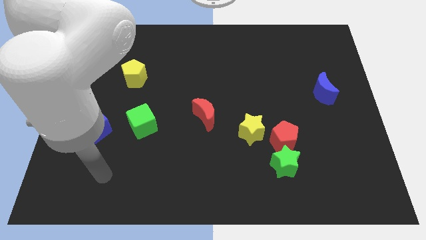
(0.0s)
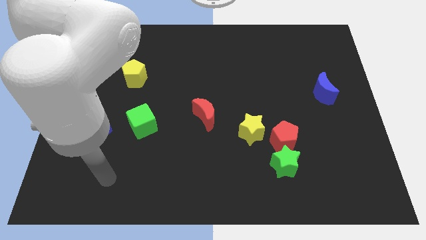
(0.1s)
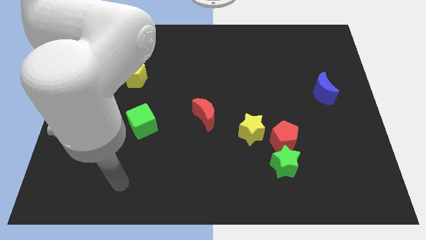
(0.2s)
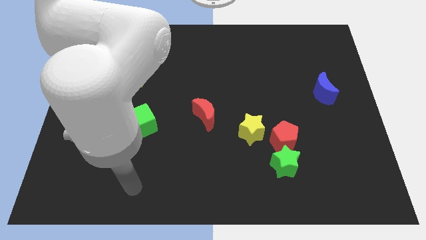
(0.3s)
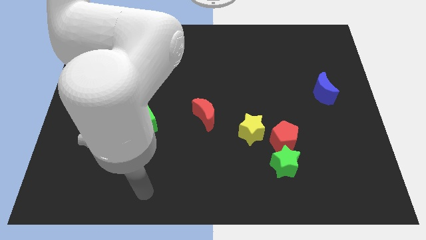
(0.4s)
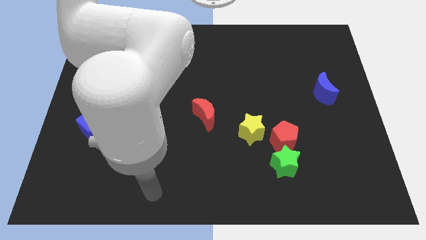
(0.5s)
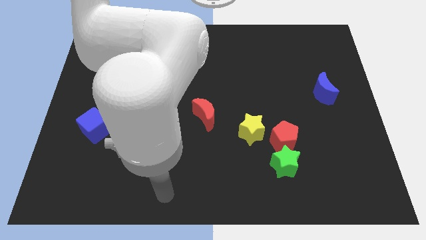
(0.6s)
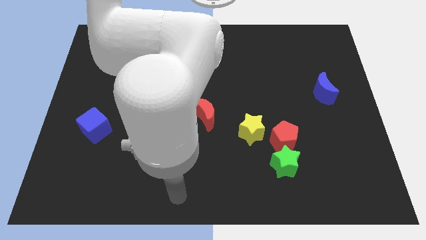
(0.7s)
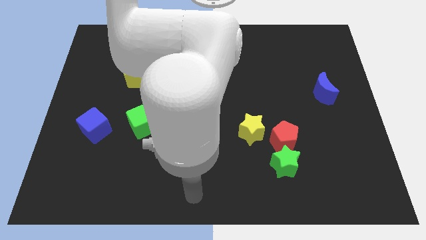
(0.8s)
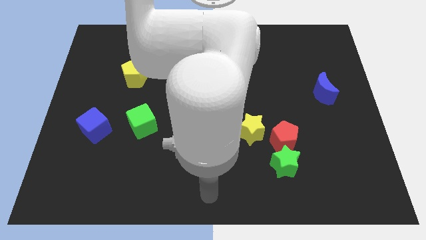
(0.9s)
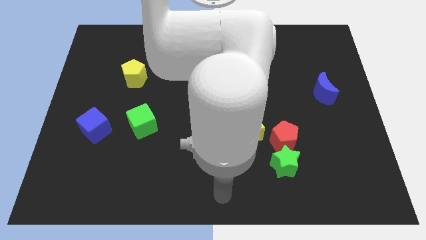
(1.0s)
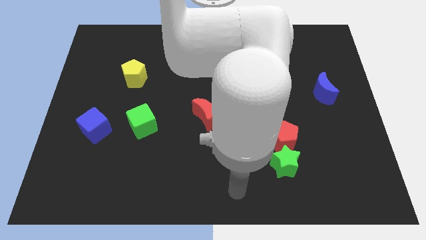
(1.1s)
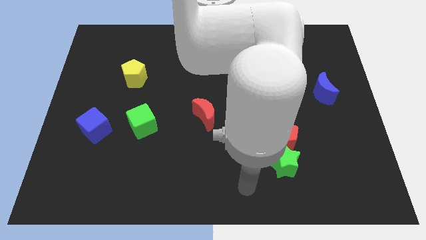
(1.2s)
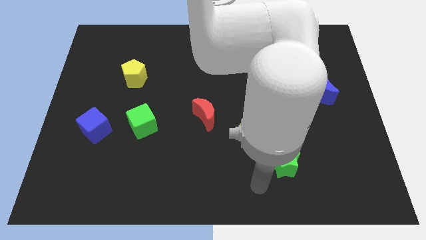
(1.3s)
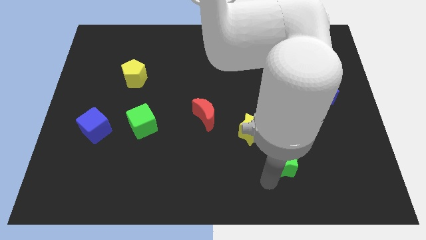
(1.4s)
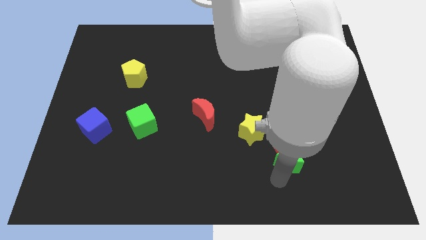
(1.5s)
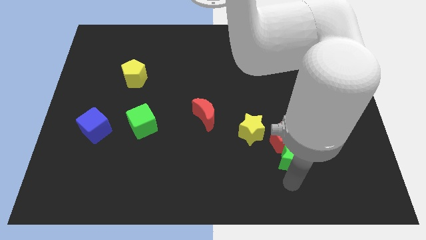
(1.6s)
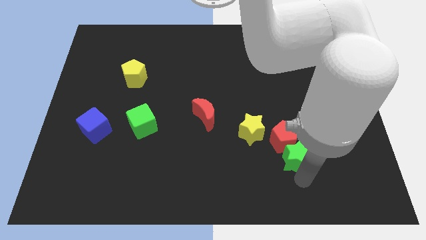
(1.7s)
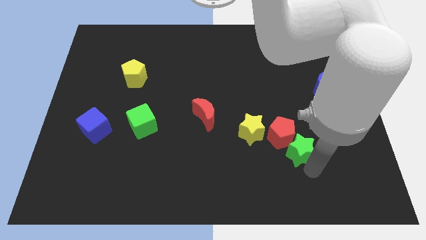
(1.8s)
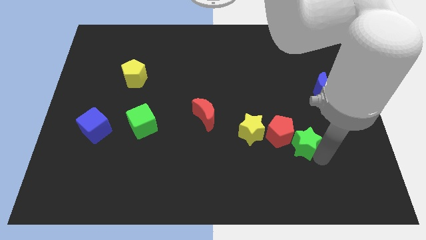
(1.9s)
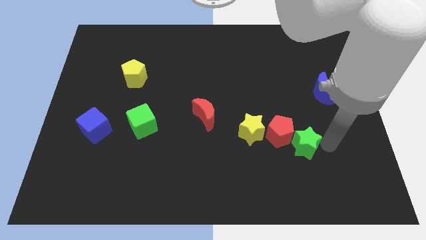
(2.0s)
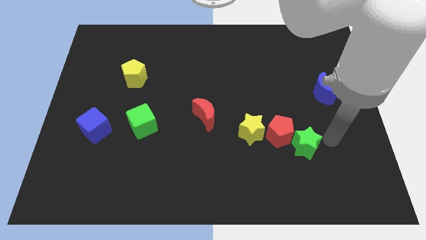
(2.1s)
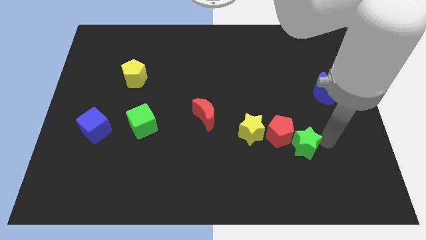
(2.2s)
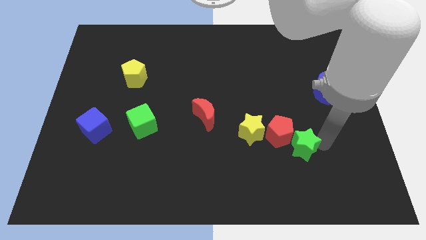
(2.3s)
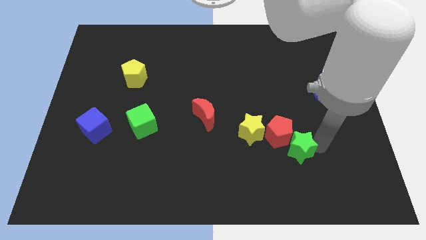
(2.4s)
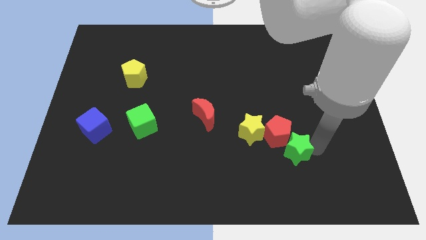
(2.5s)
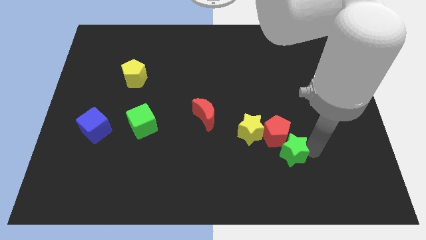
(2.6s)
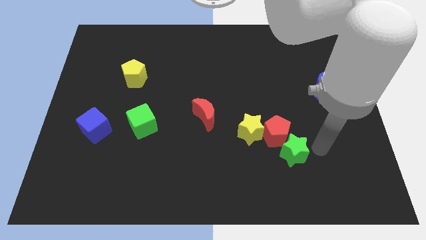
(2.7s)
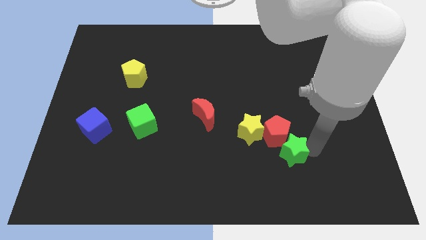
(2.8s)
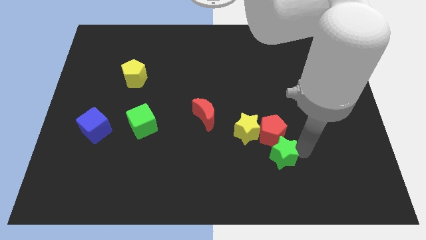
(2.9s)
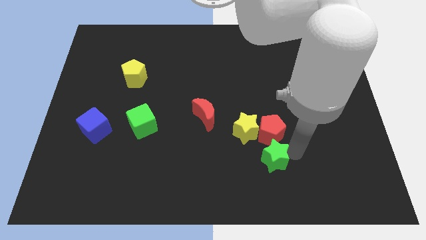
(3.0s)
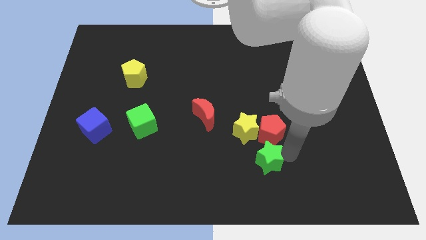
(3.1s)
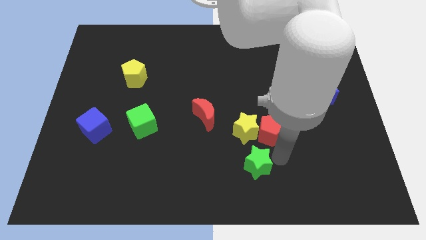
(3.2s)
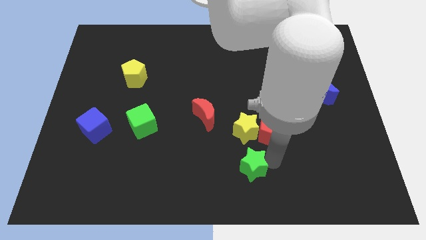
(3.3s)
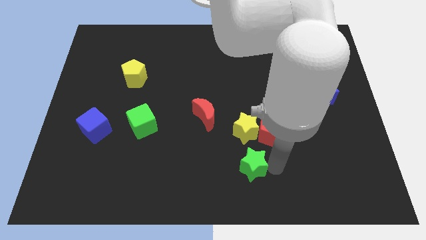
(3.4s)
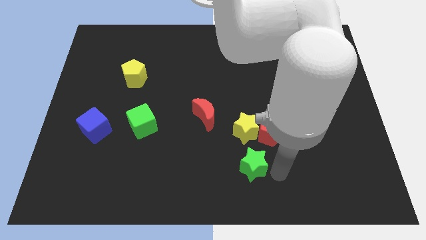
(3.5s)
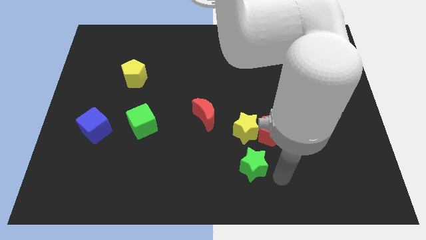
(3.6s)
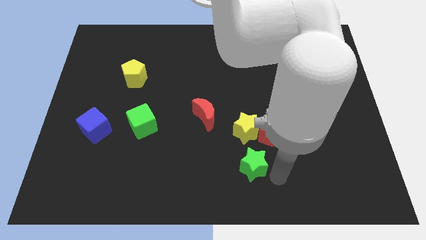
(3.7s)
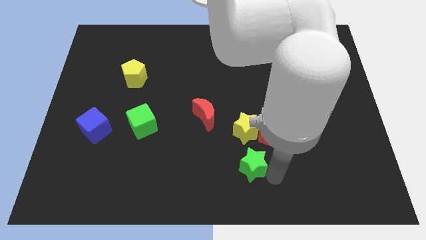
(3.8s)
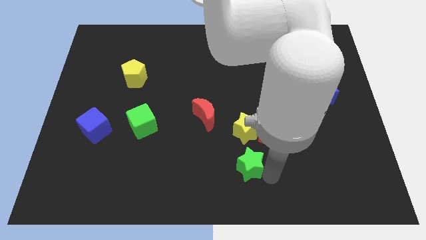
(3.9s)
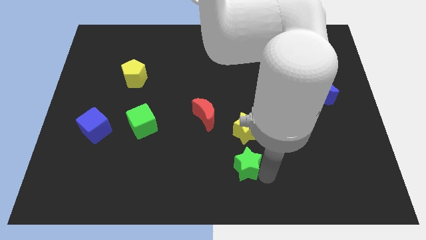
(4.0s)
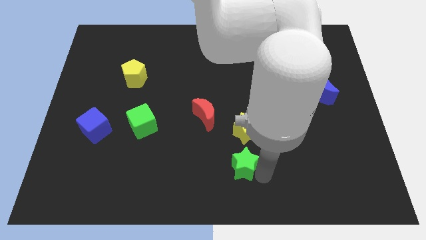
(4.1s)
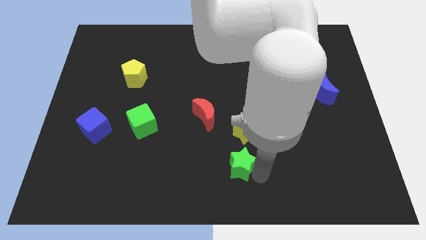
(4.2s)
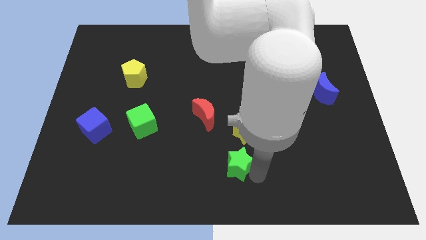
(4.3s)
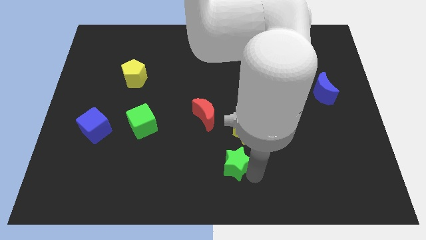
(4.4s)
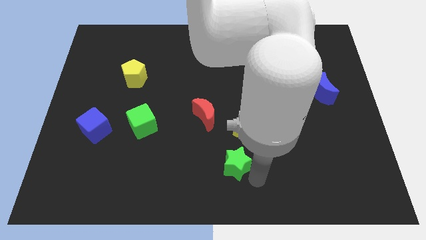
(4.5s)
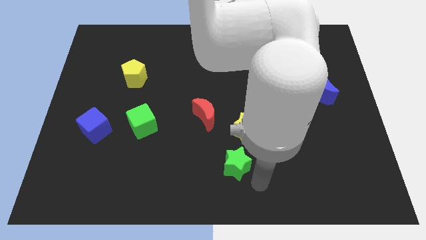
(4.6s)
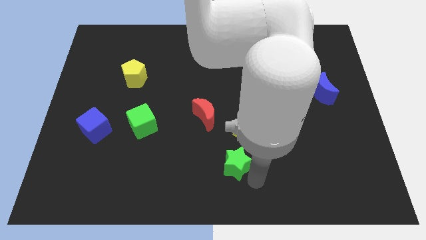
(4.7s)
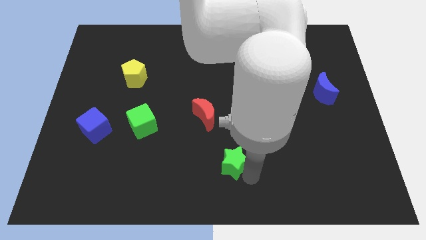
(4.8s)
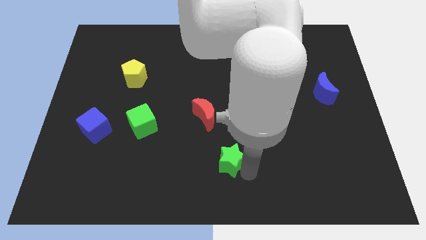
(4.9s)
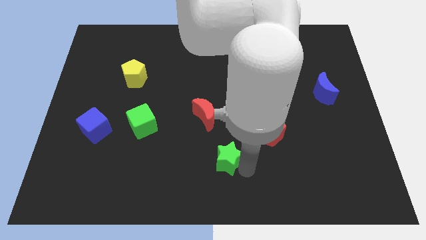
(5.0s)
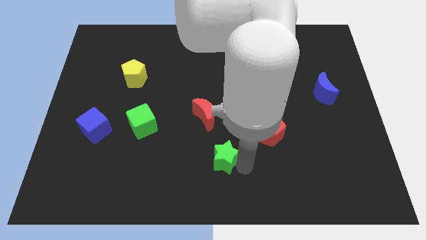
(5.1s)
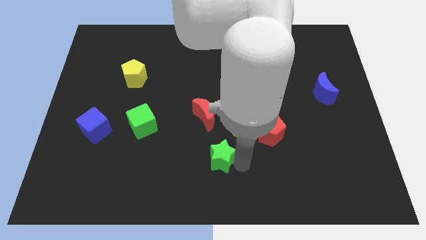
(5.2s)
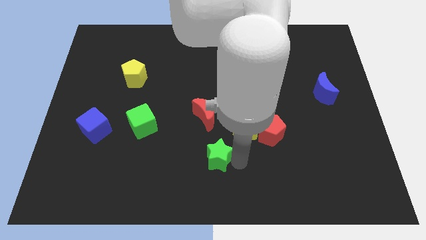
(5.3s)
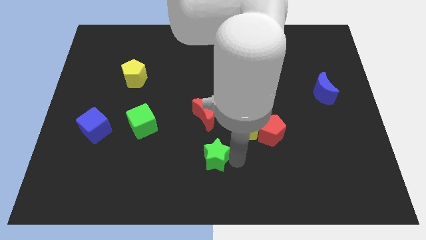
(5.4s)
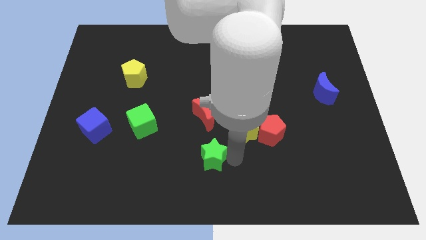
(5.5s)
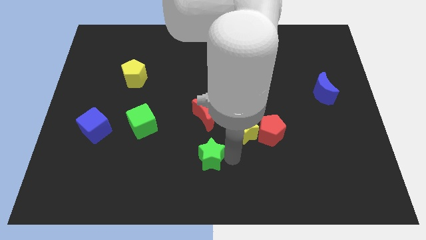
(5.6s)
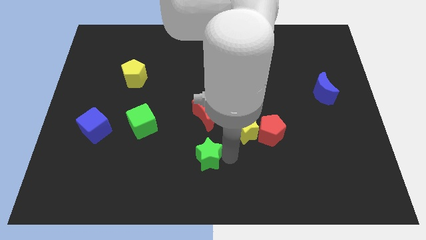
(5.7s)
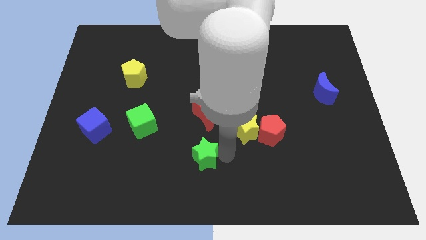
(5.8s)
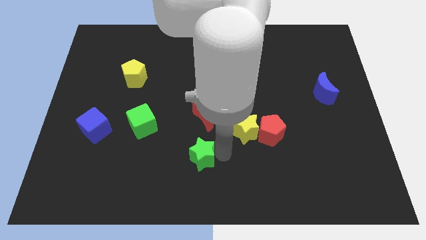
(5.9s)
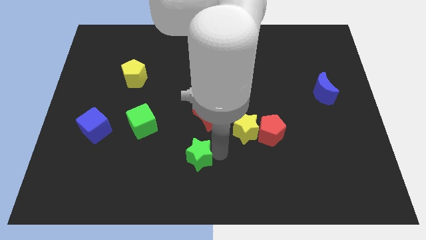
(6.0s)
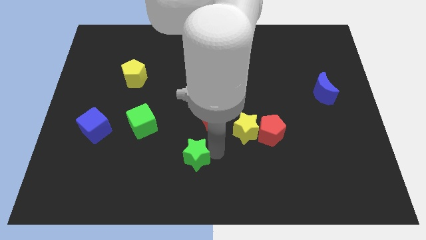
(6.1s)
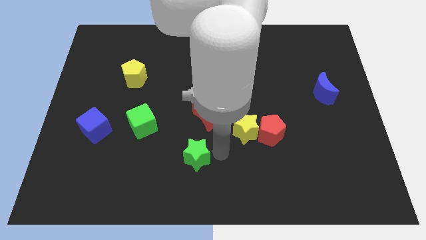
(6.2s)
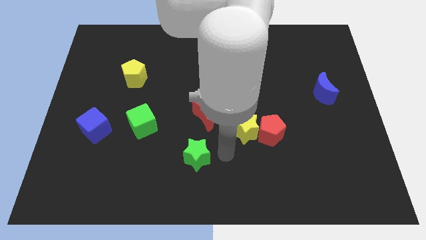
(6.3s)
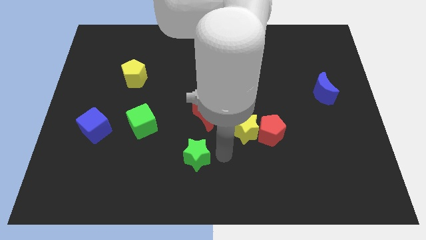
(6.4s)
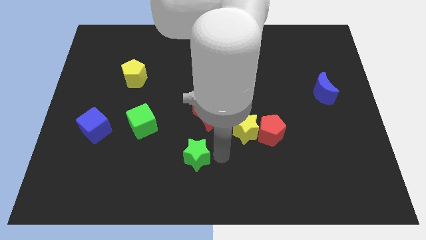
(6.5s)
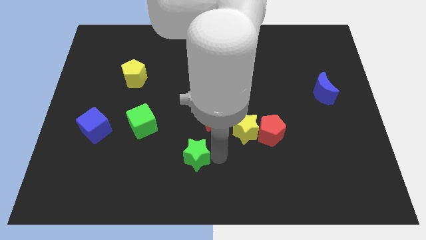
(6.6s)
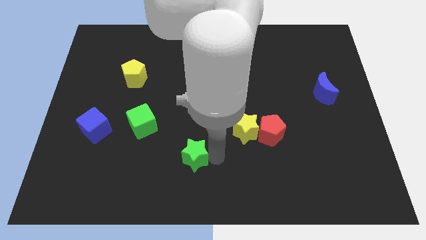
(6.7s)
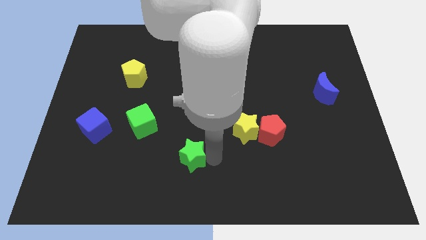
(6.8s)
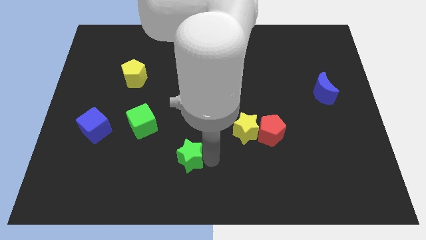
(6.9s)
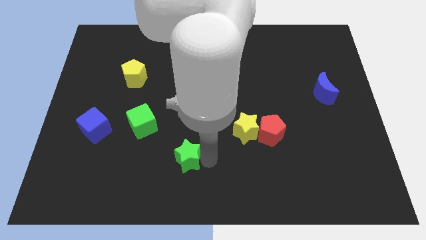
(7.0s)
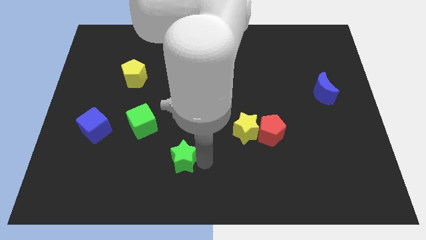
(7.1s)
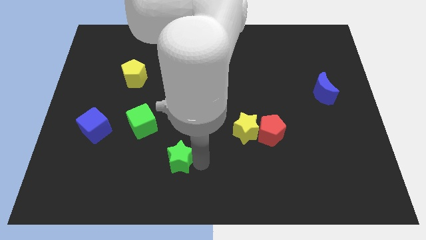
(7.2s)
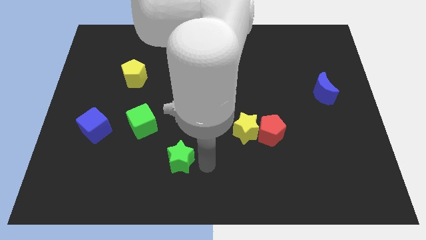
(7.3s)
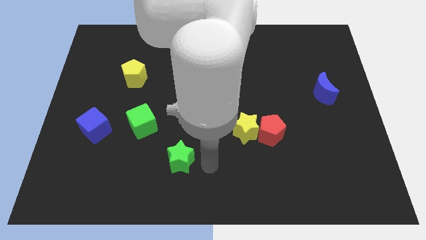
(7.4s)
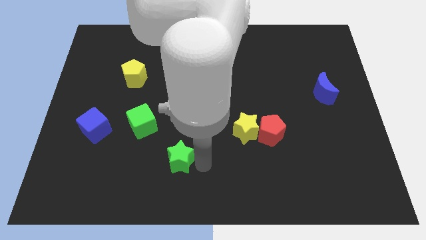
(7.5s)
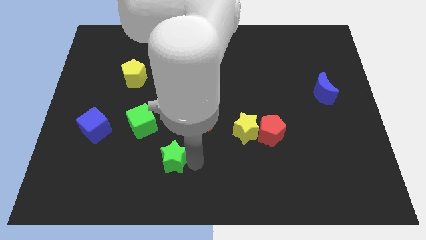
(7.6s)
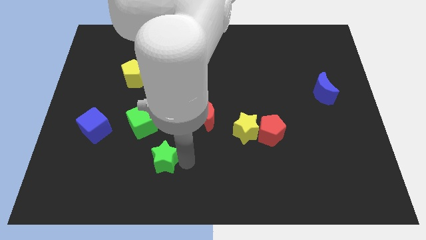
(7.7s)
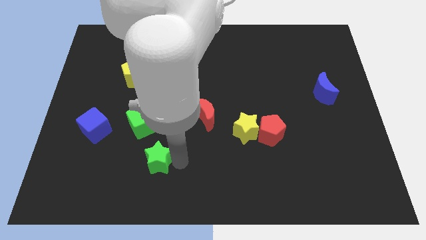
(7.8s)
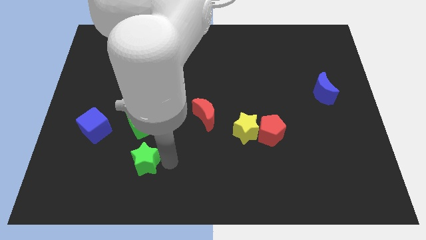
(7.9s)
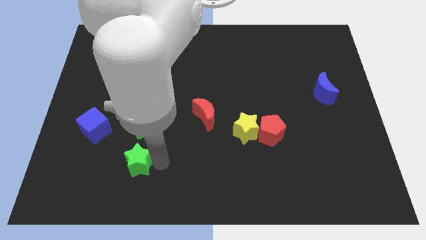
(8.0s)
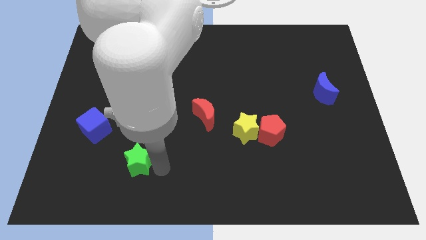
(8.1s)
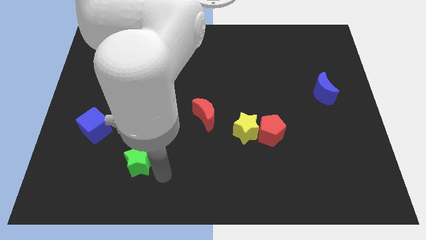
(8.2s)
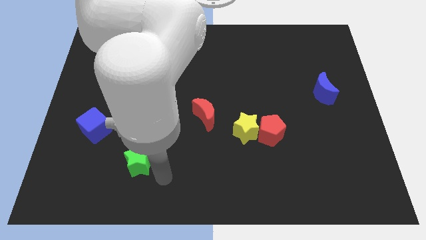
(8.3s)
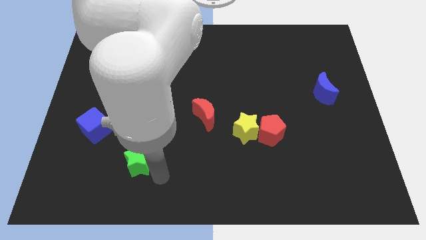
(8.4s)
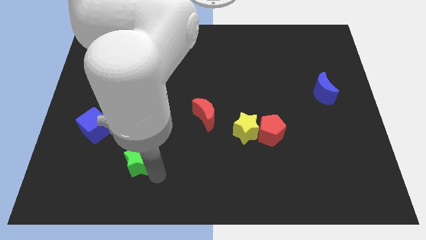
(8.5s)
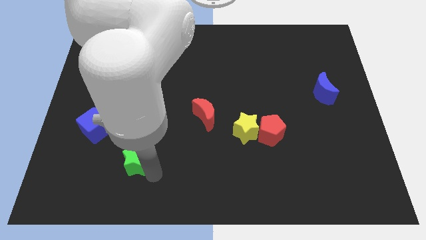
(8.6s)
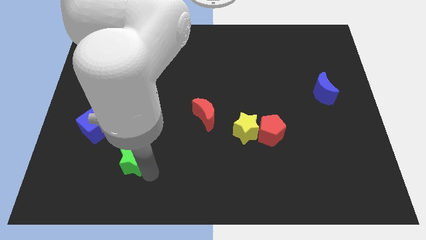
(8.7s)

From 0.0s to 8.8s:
push the green star to the bottom right side of the blue cube
